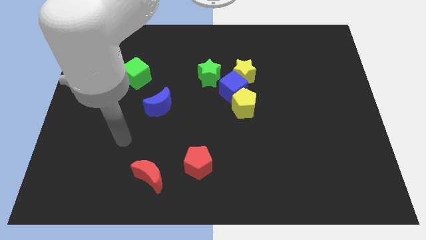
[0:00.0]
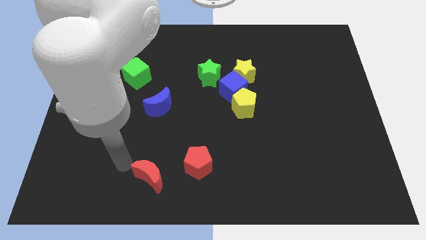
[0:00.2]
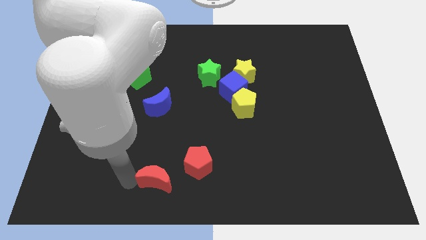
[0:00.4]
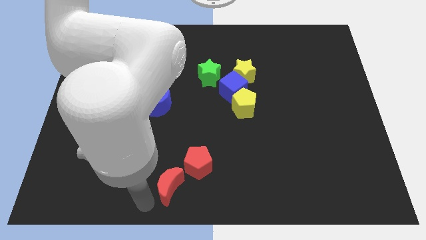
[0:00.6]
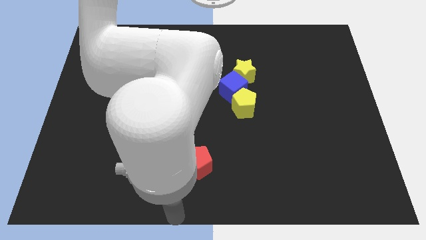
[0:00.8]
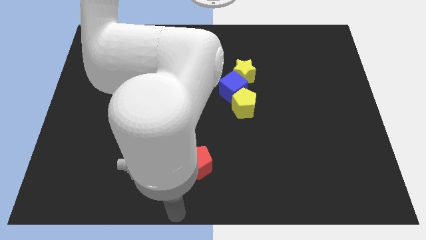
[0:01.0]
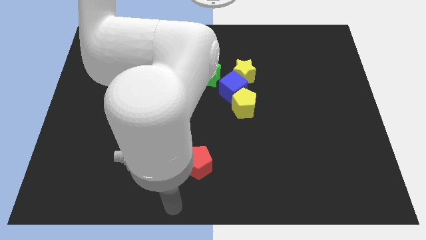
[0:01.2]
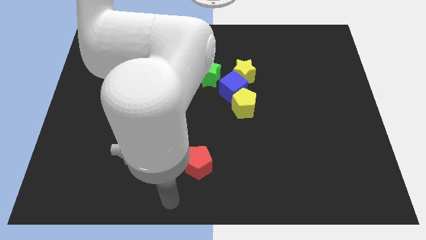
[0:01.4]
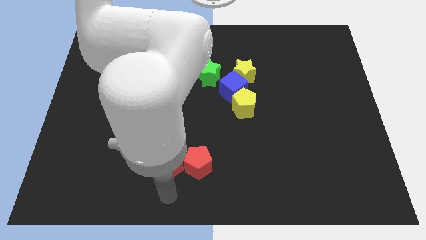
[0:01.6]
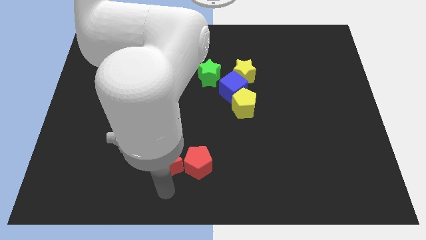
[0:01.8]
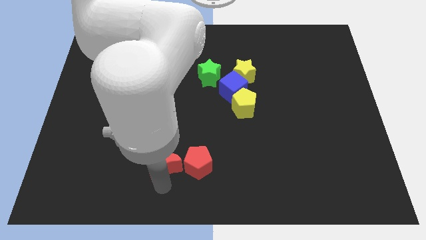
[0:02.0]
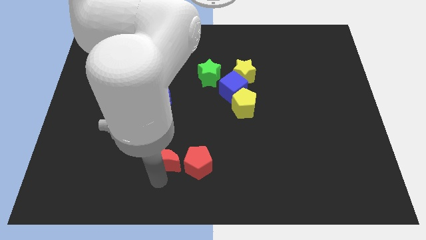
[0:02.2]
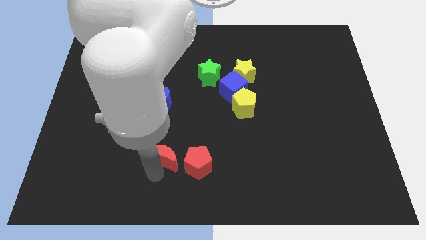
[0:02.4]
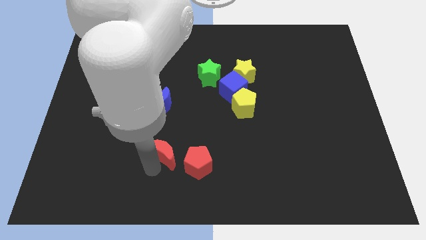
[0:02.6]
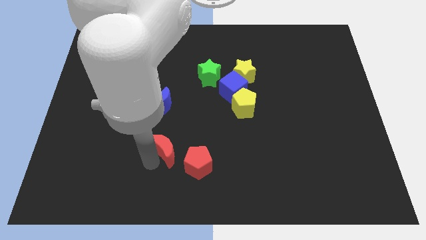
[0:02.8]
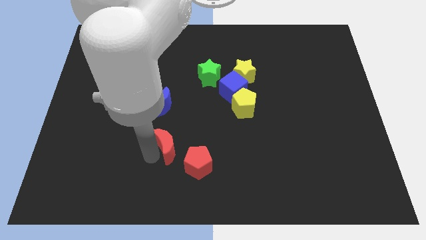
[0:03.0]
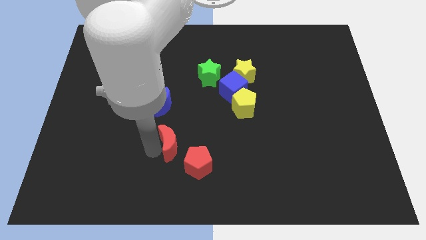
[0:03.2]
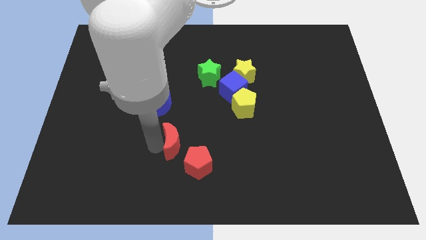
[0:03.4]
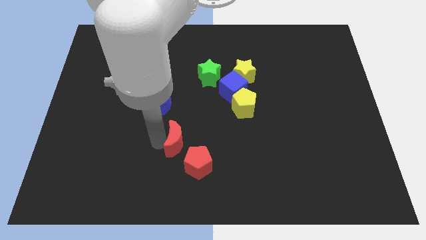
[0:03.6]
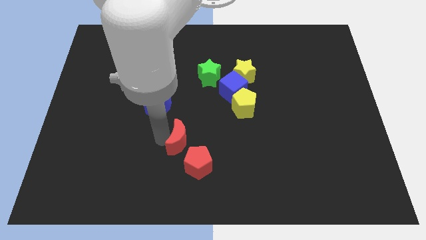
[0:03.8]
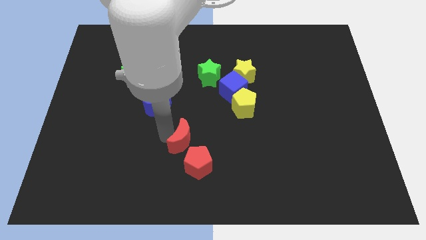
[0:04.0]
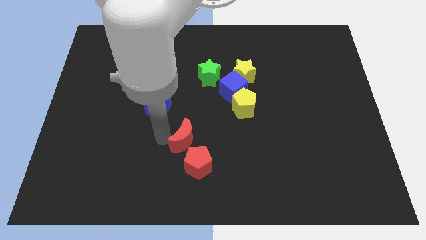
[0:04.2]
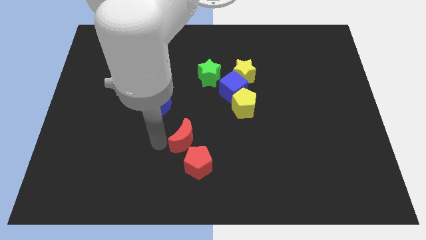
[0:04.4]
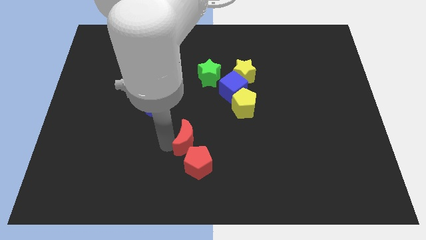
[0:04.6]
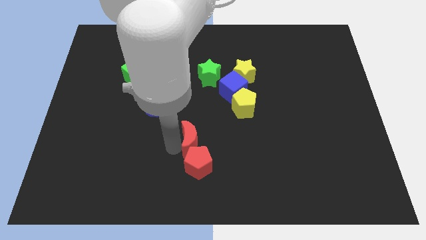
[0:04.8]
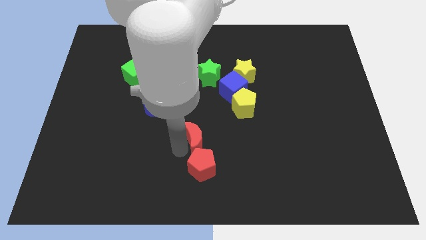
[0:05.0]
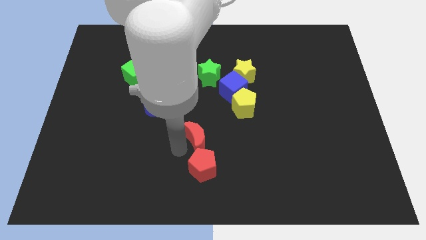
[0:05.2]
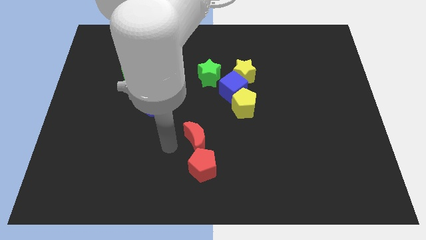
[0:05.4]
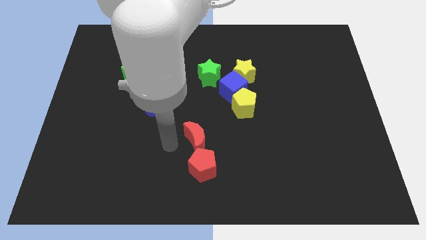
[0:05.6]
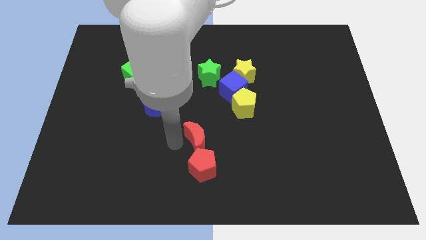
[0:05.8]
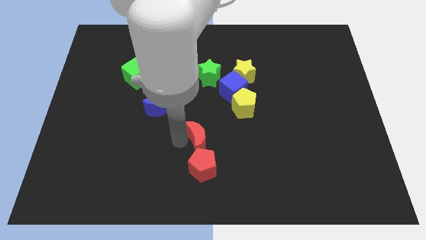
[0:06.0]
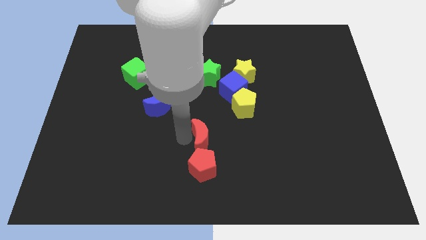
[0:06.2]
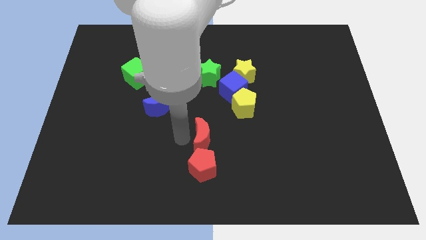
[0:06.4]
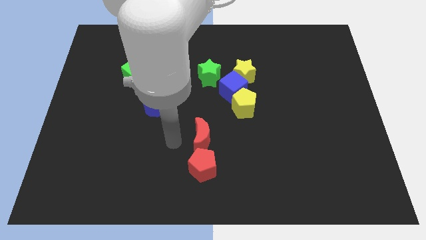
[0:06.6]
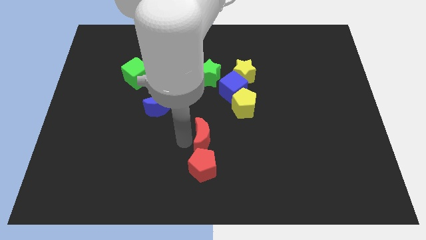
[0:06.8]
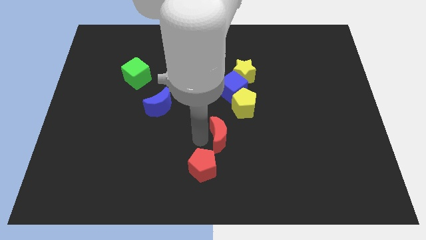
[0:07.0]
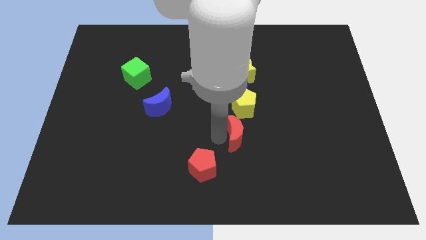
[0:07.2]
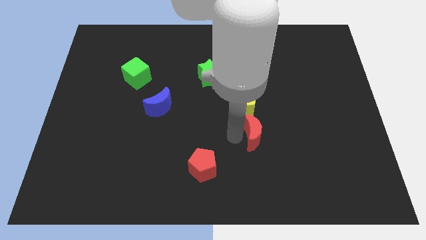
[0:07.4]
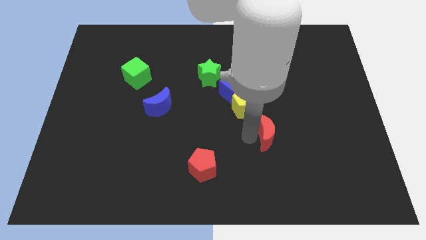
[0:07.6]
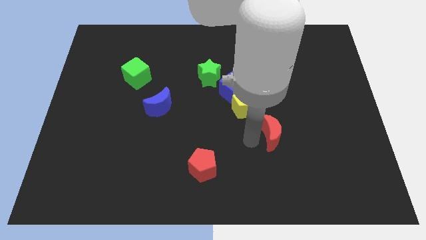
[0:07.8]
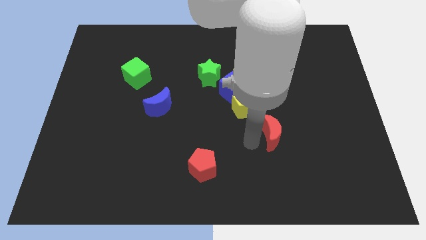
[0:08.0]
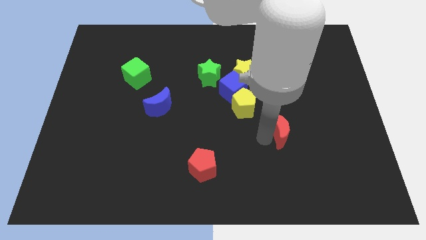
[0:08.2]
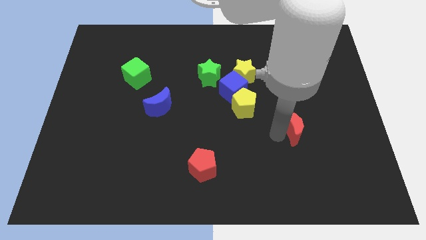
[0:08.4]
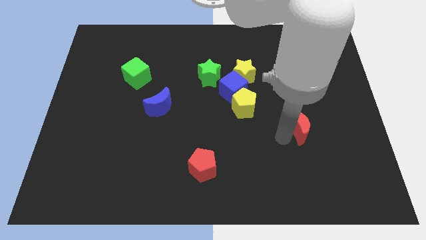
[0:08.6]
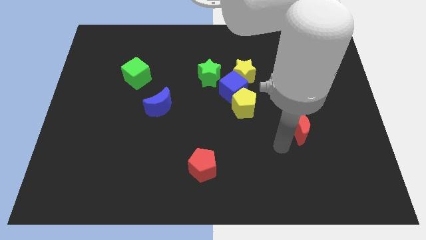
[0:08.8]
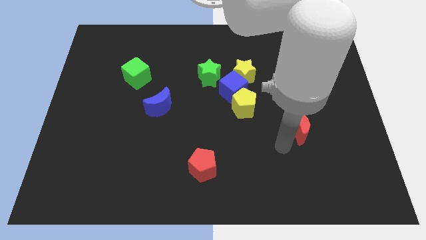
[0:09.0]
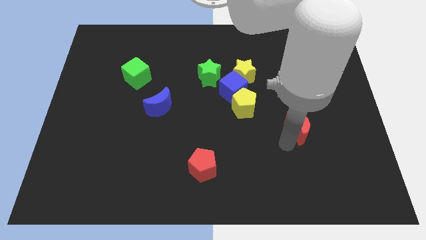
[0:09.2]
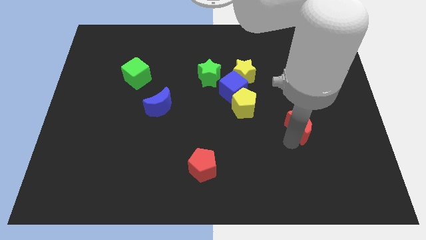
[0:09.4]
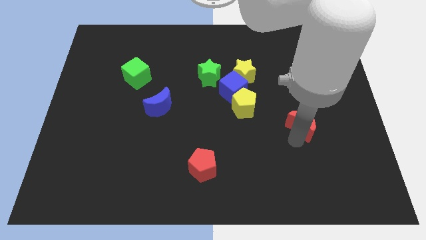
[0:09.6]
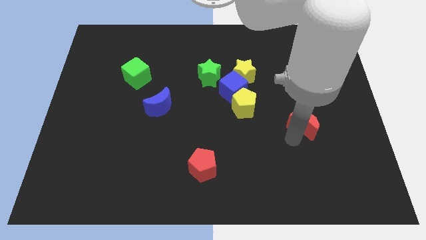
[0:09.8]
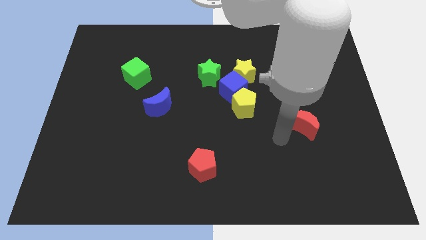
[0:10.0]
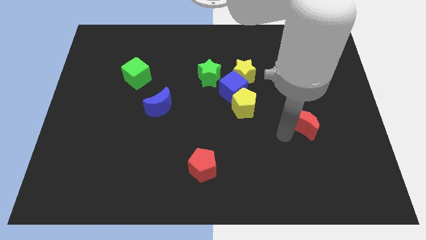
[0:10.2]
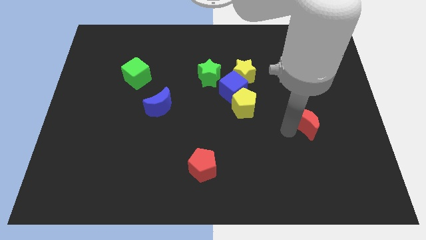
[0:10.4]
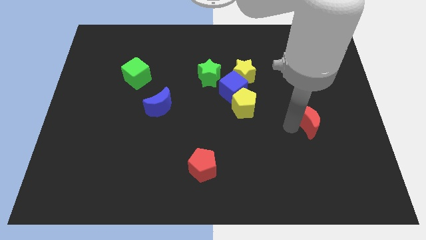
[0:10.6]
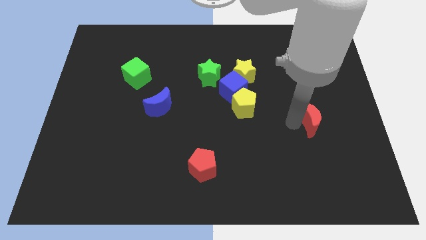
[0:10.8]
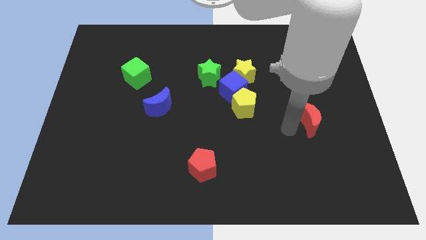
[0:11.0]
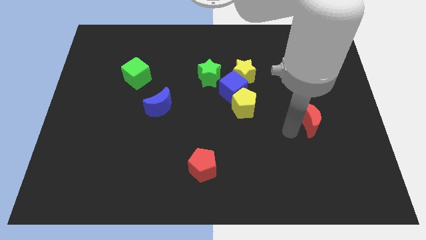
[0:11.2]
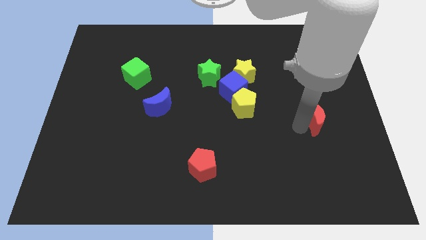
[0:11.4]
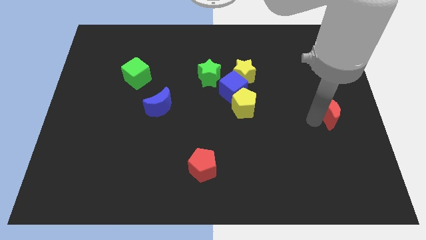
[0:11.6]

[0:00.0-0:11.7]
put the red moon to the right side of the board
